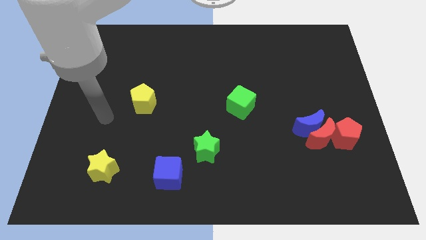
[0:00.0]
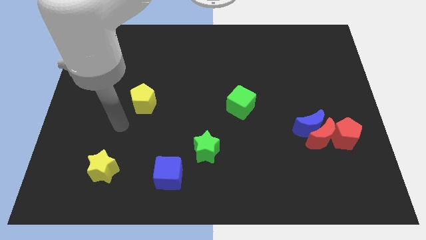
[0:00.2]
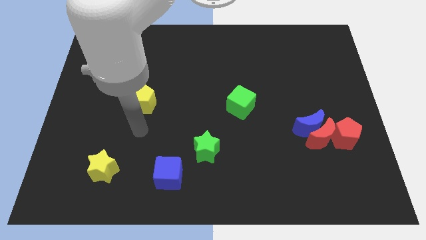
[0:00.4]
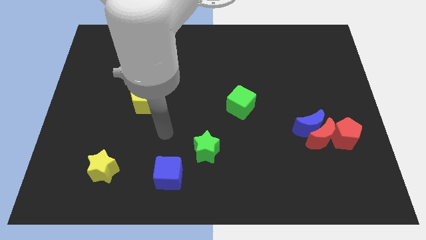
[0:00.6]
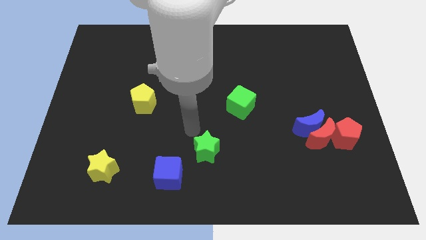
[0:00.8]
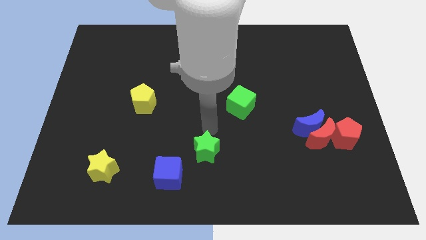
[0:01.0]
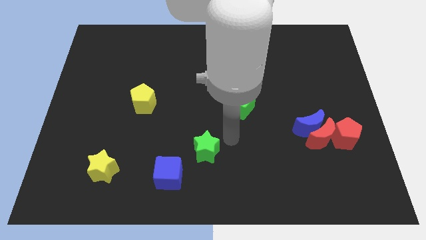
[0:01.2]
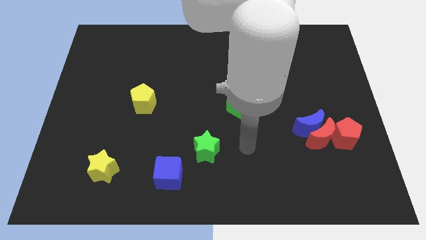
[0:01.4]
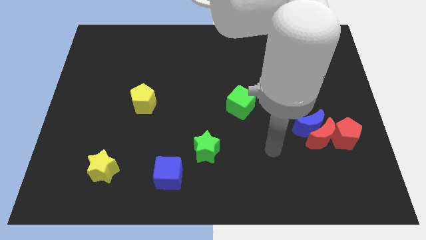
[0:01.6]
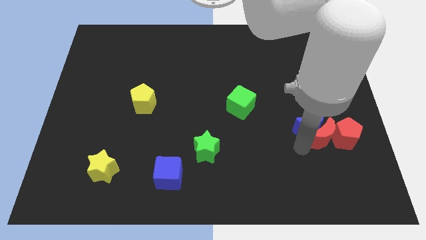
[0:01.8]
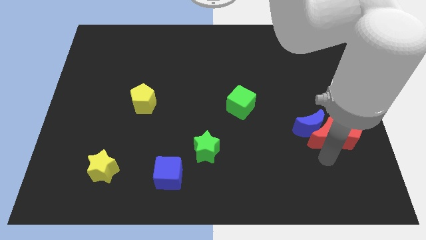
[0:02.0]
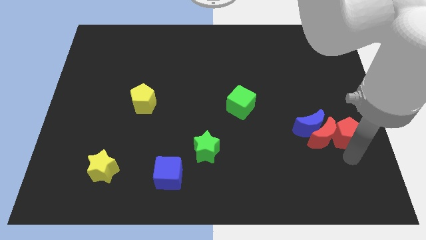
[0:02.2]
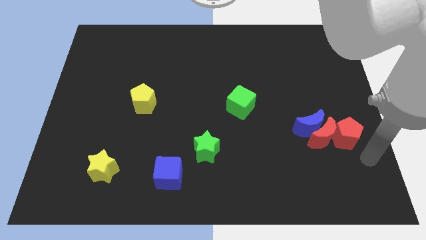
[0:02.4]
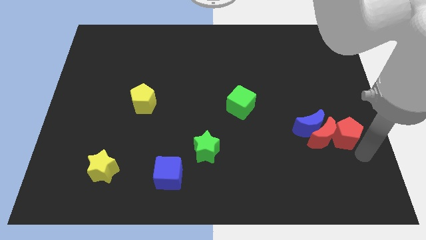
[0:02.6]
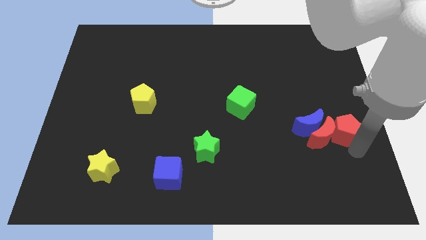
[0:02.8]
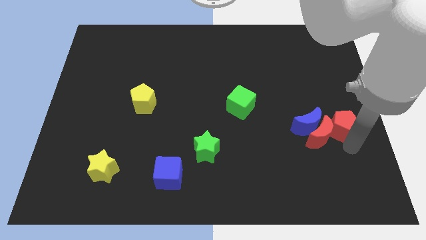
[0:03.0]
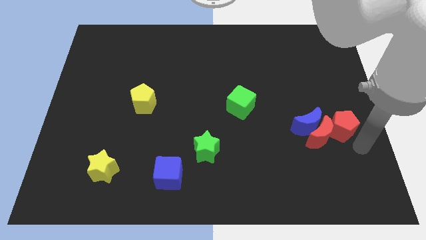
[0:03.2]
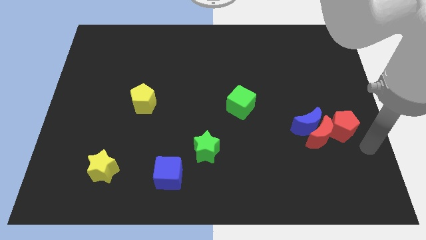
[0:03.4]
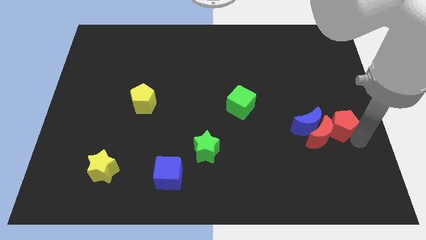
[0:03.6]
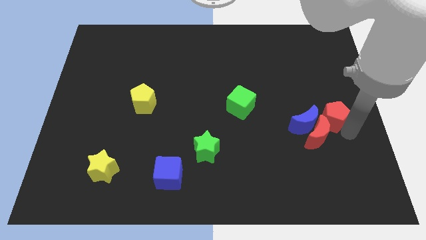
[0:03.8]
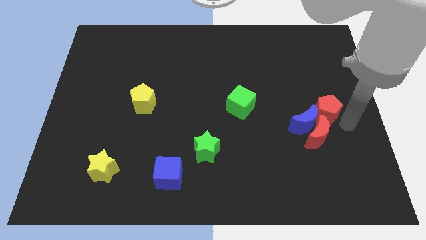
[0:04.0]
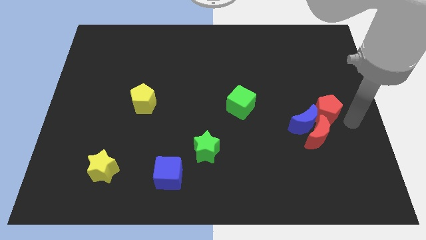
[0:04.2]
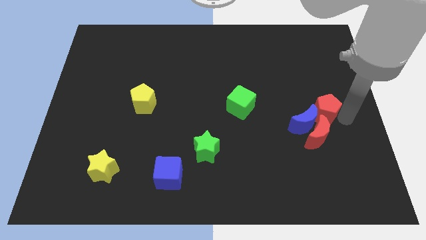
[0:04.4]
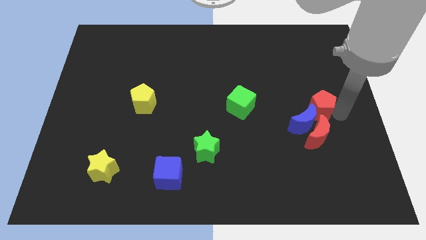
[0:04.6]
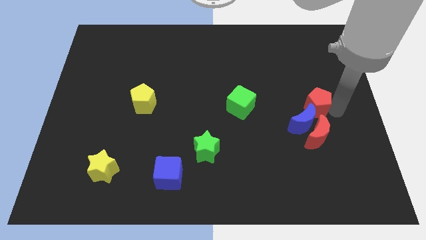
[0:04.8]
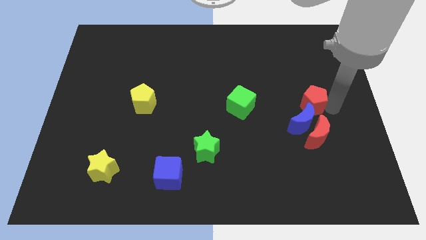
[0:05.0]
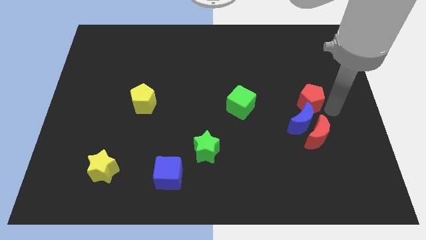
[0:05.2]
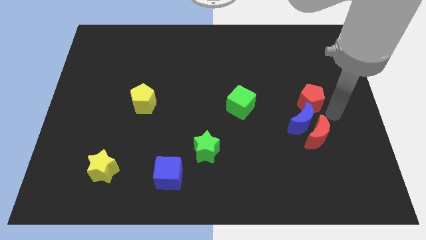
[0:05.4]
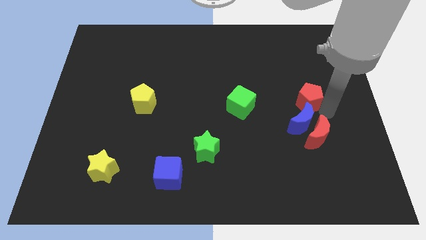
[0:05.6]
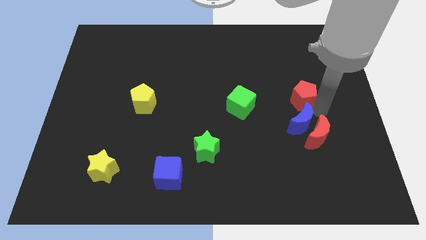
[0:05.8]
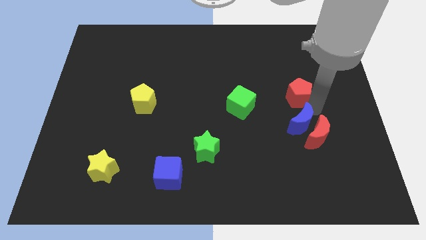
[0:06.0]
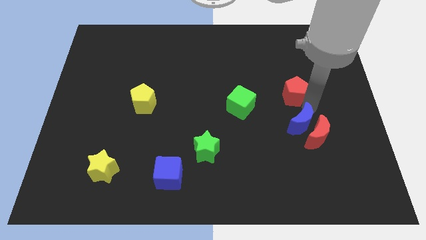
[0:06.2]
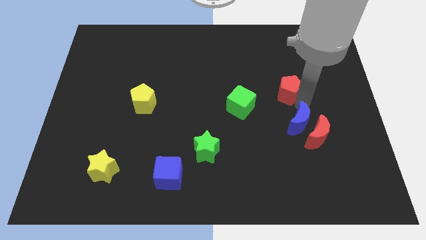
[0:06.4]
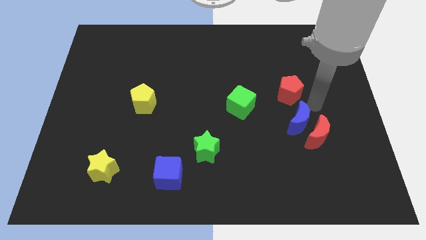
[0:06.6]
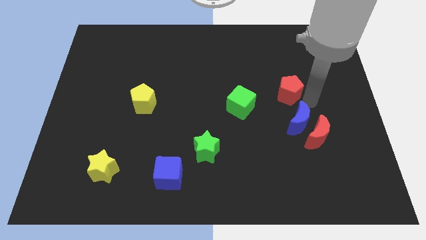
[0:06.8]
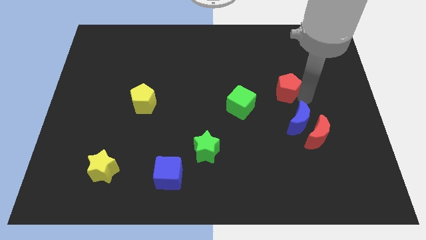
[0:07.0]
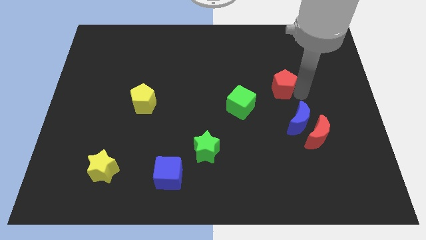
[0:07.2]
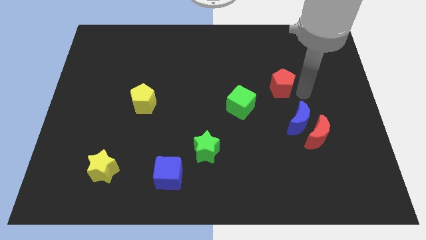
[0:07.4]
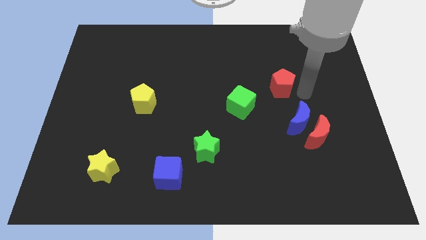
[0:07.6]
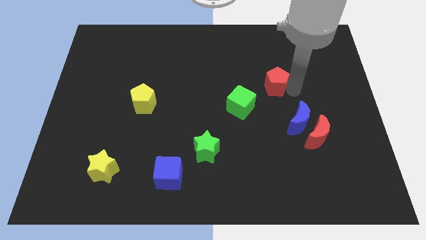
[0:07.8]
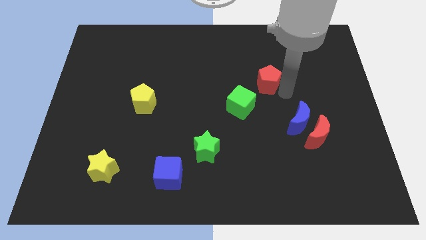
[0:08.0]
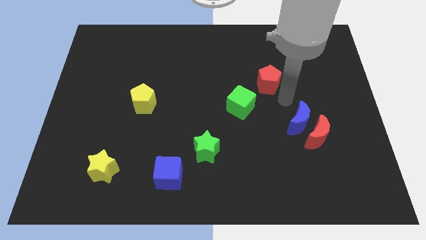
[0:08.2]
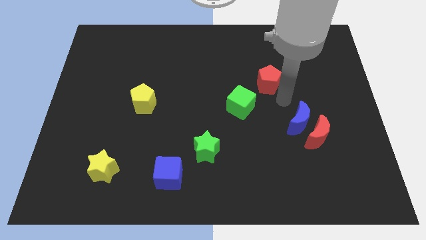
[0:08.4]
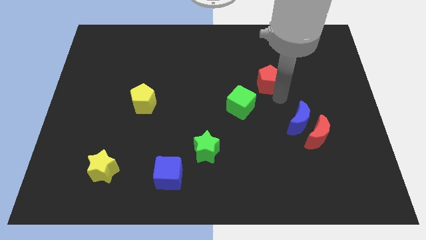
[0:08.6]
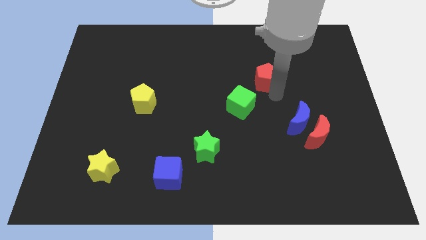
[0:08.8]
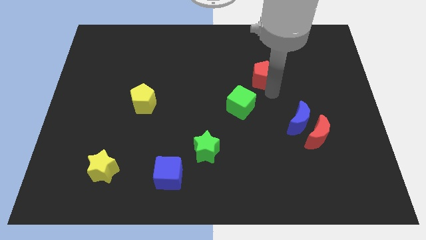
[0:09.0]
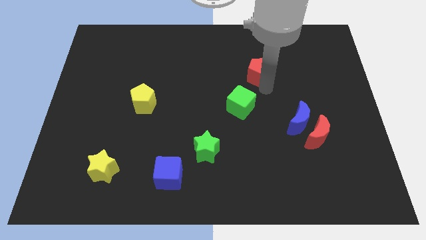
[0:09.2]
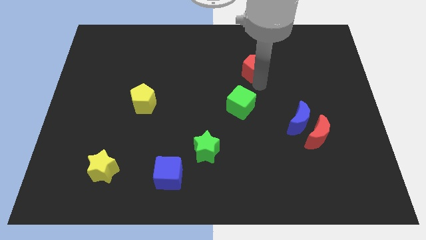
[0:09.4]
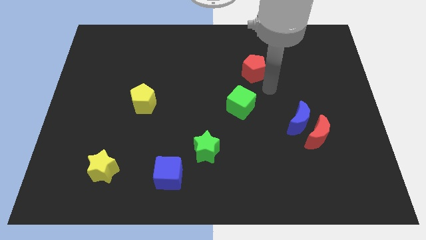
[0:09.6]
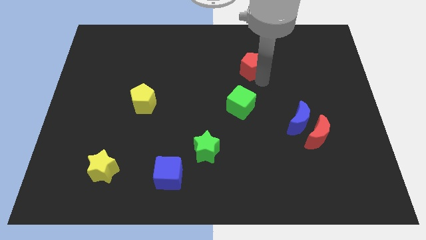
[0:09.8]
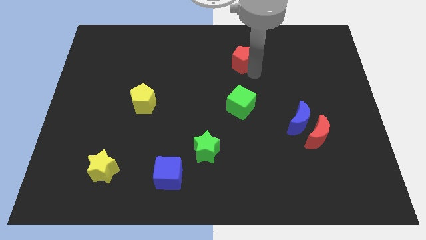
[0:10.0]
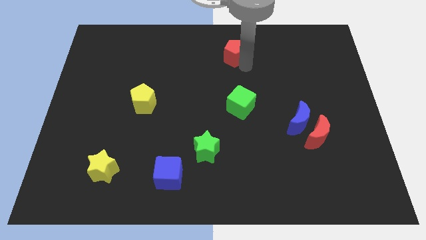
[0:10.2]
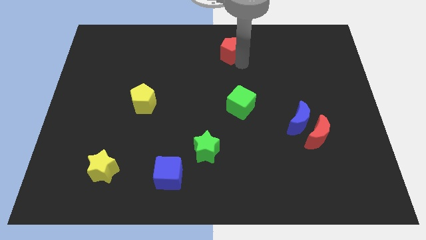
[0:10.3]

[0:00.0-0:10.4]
slide the red pentagon to the top
